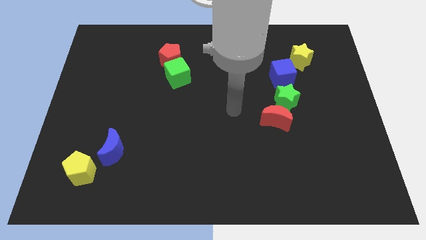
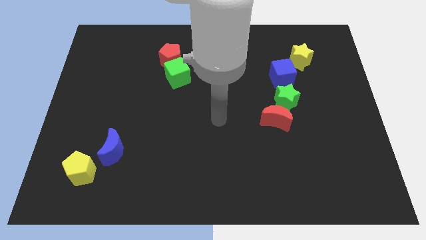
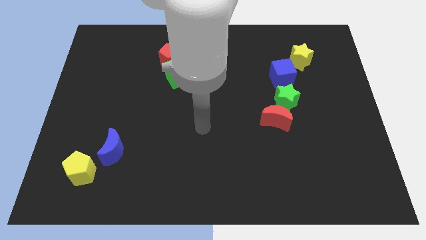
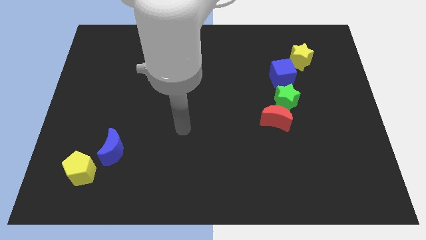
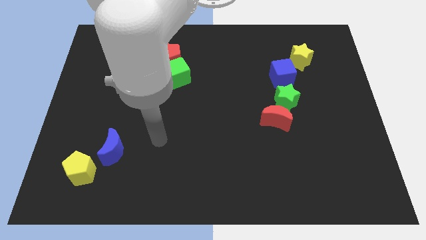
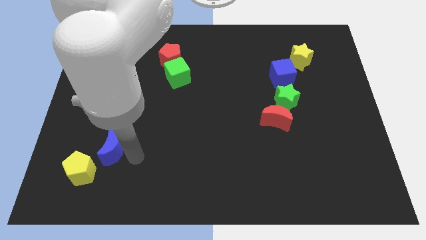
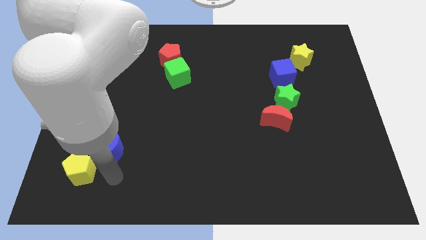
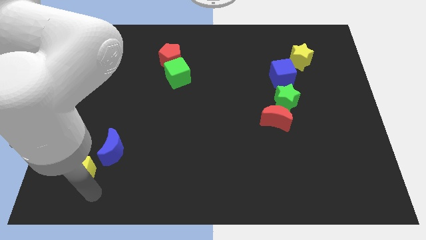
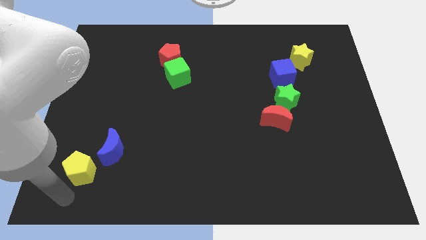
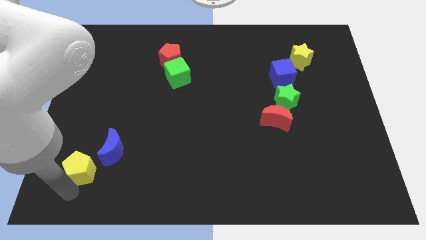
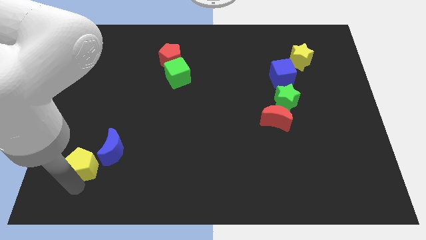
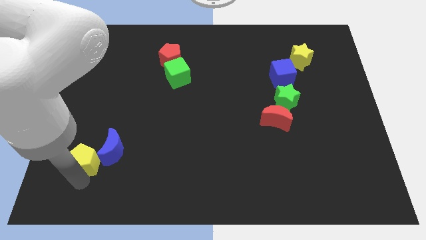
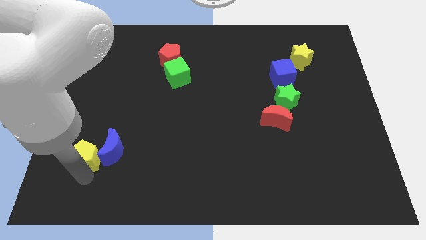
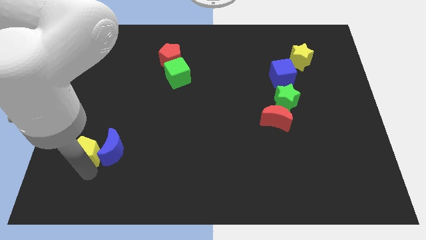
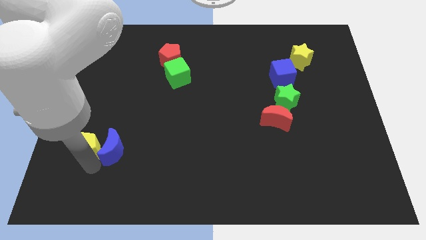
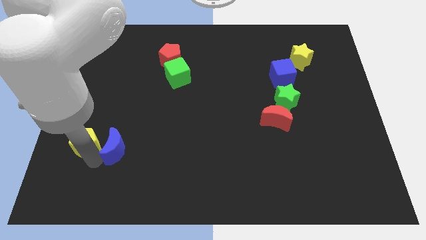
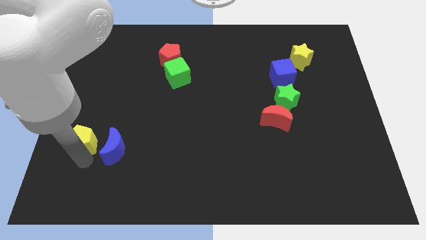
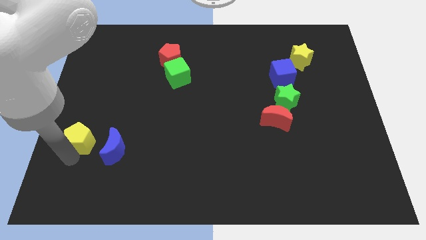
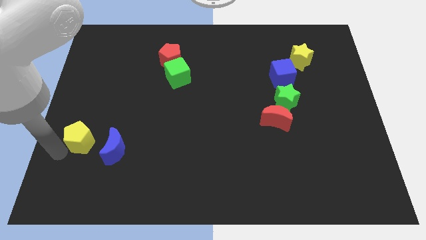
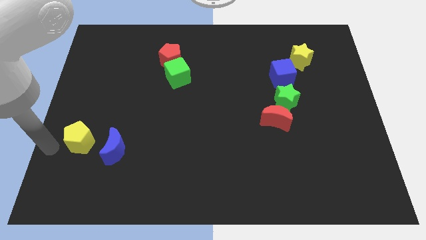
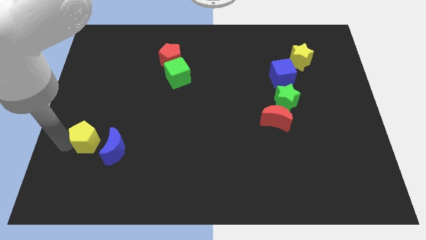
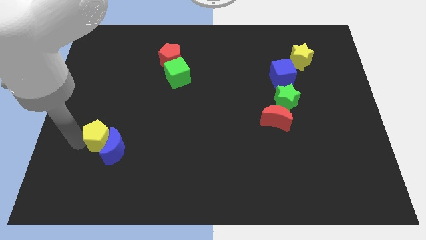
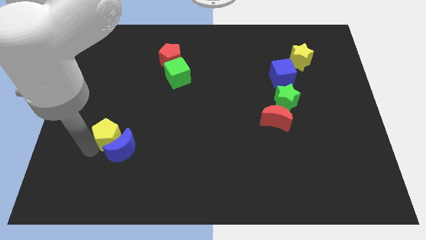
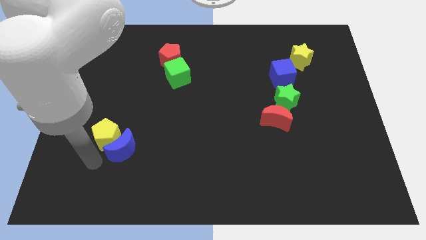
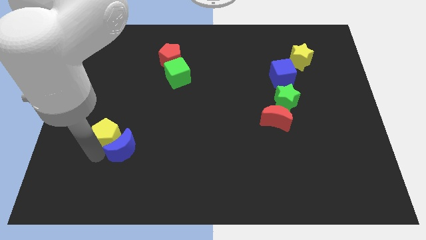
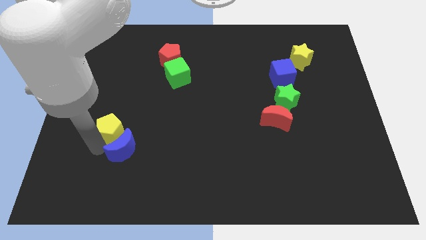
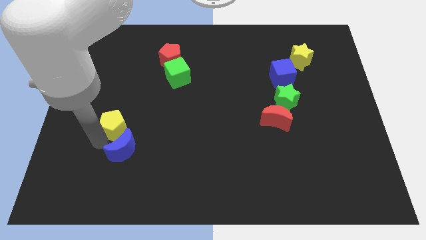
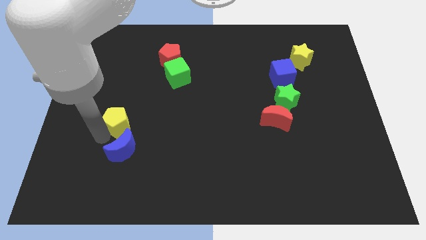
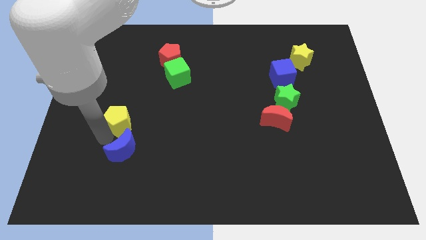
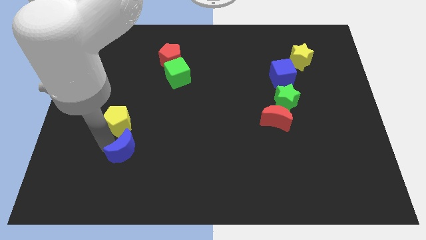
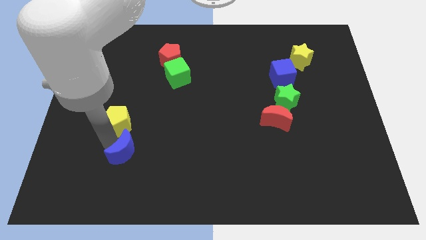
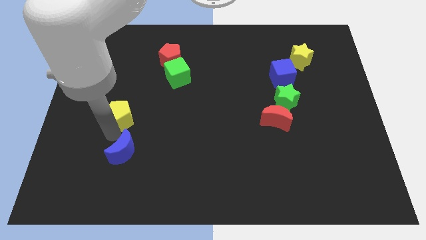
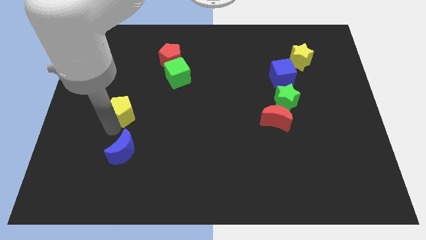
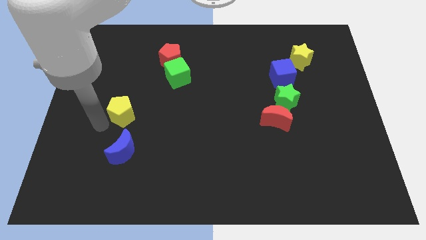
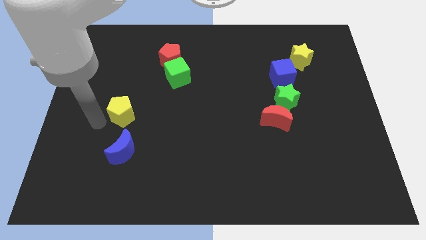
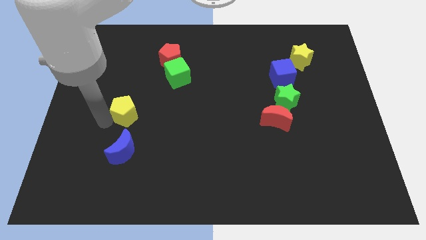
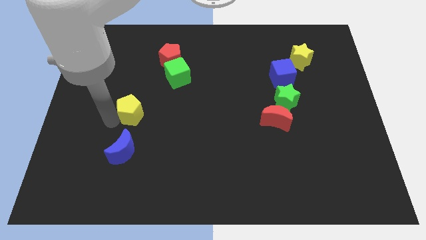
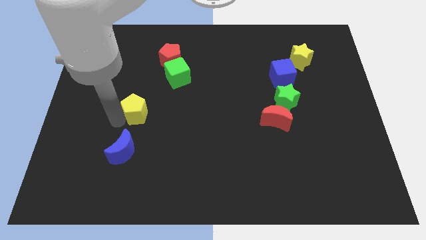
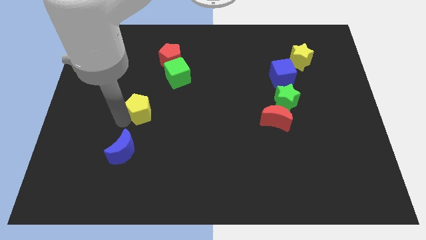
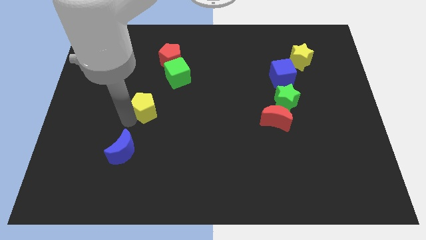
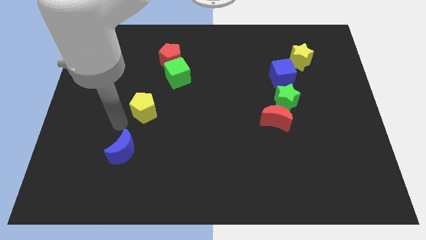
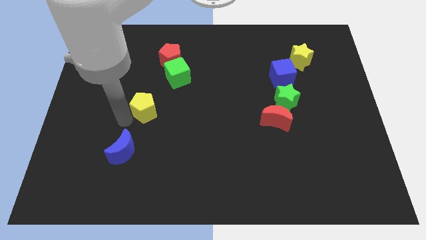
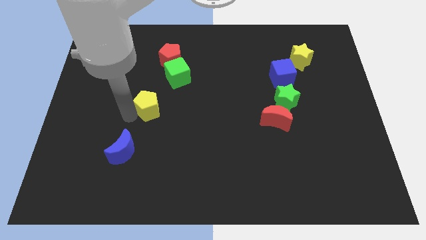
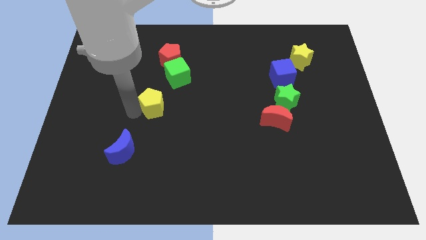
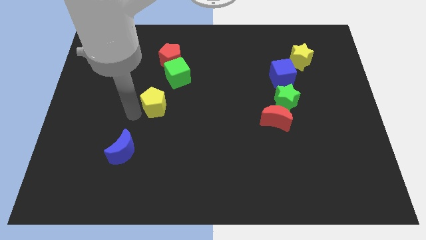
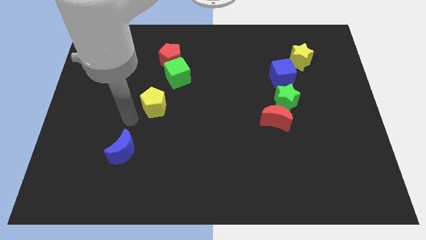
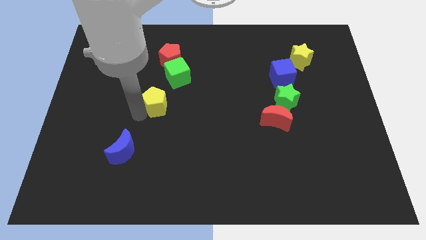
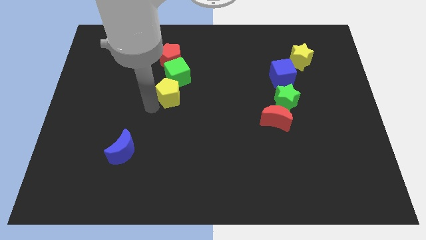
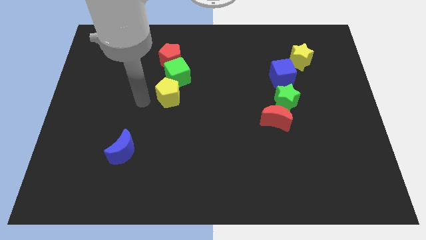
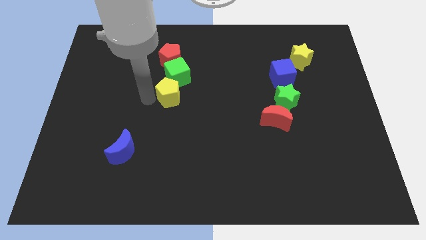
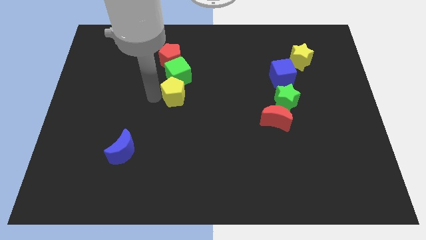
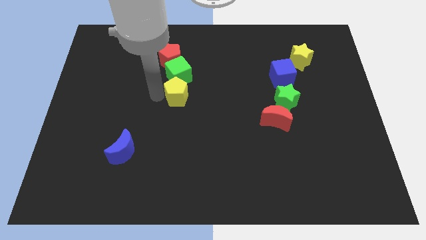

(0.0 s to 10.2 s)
put the yellow pentagon diagonally down and to the right of the green cube

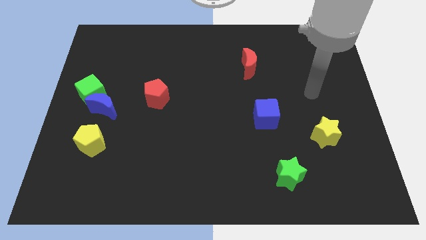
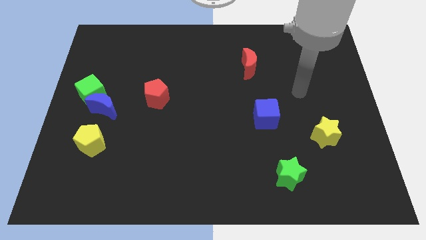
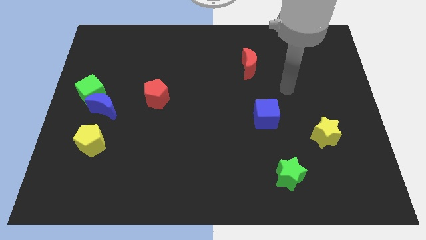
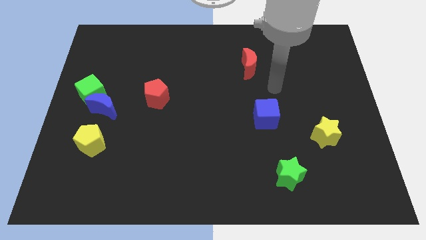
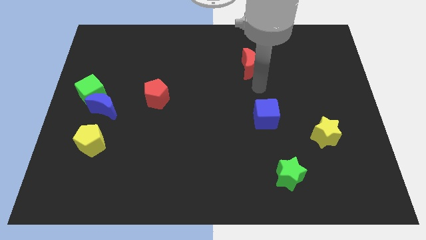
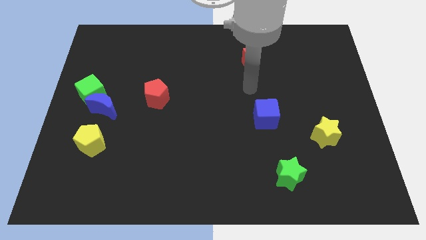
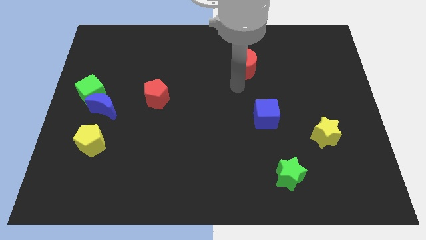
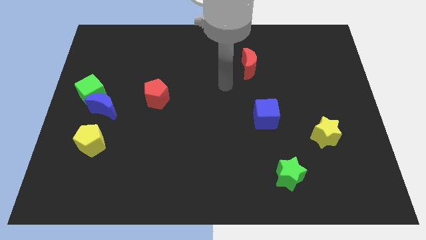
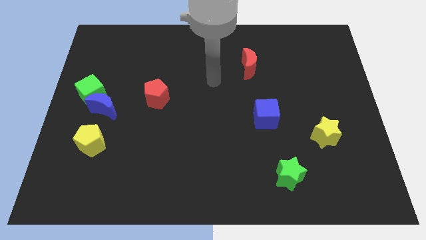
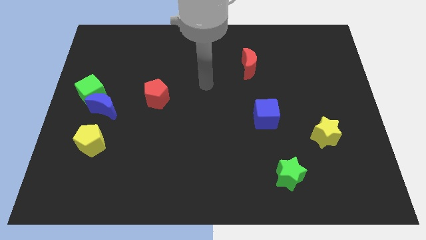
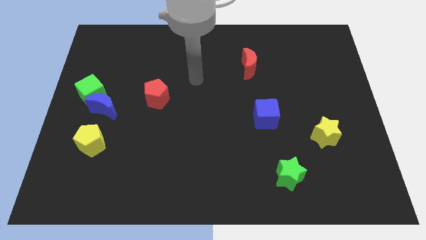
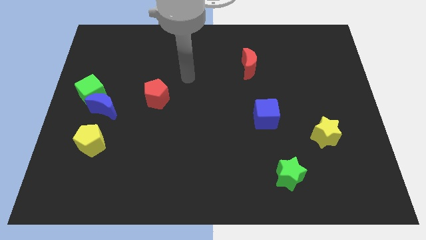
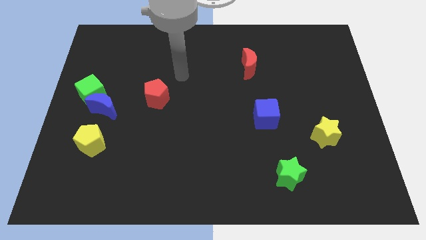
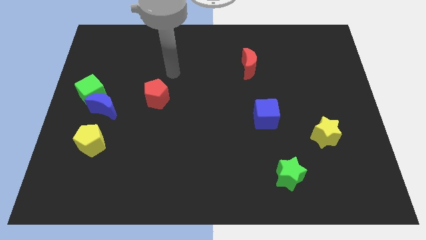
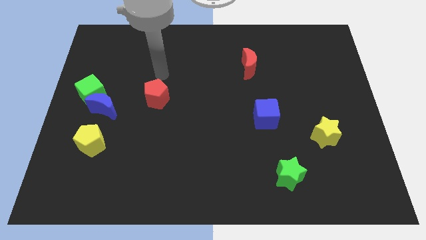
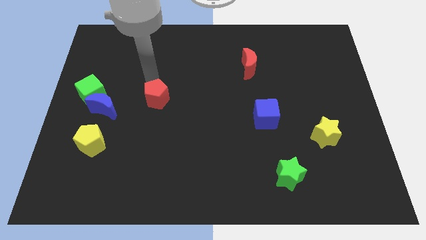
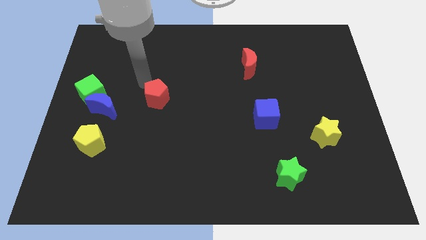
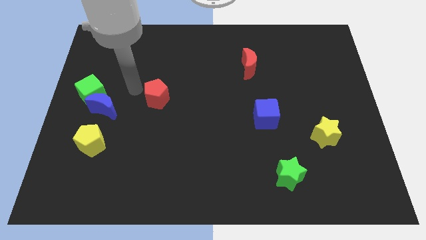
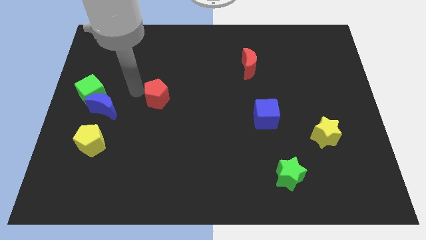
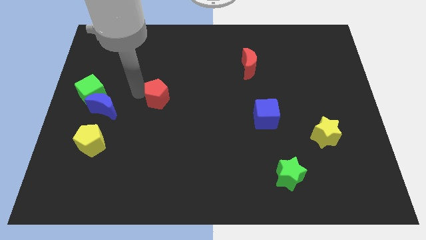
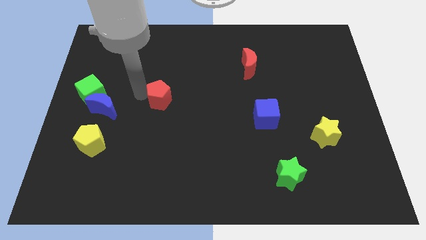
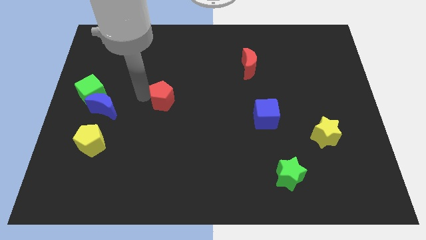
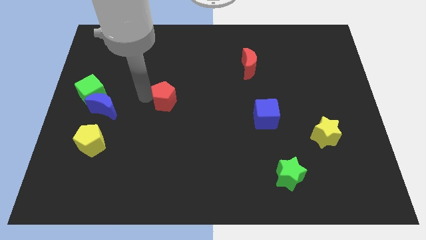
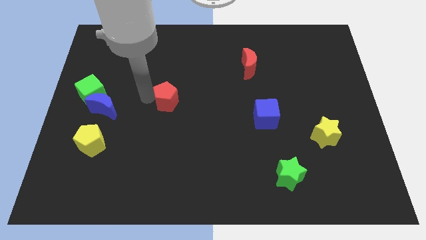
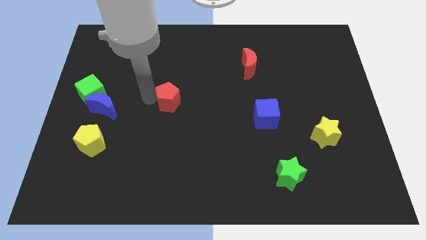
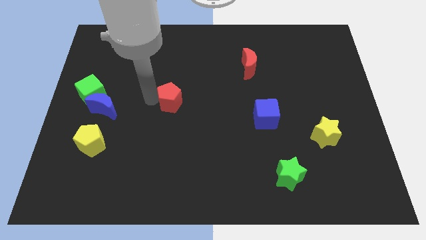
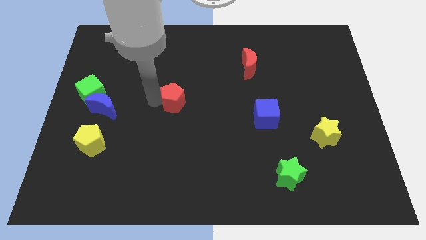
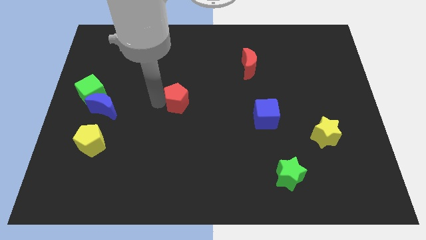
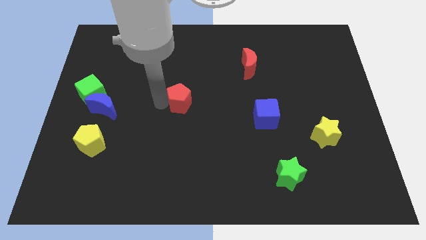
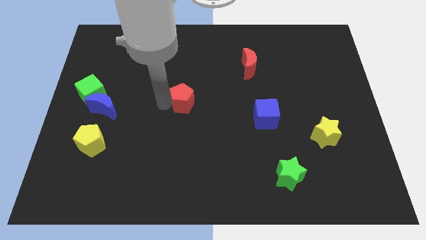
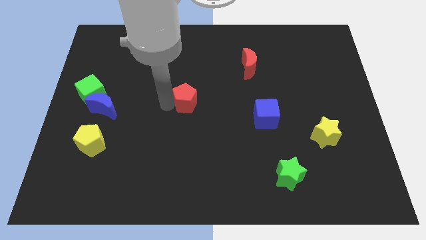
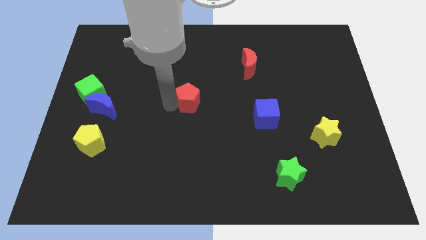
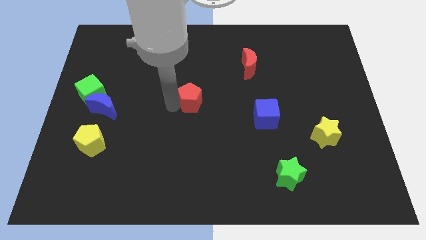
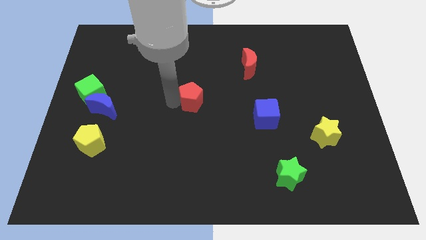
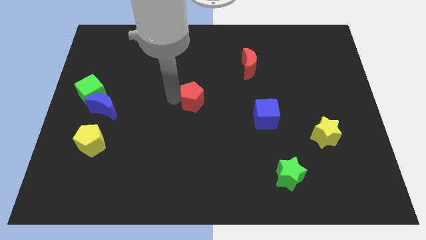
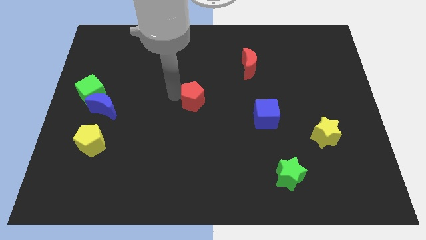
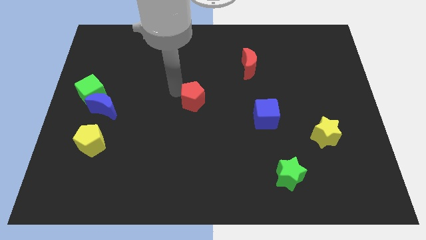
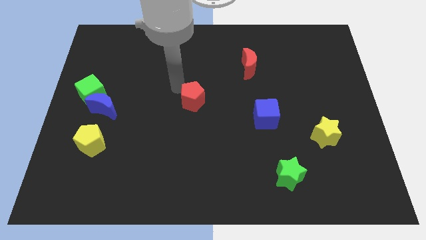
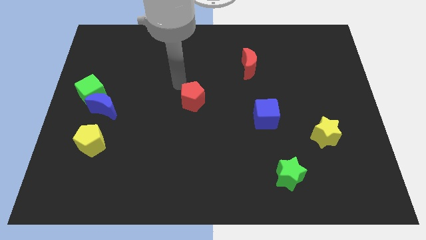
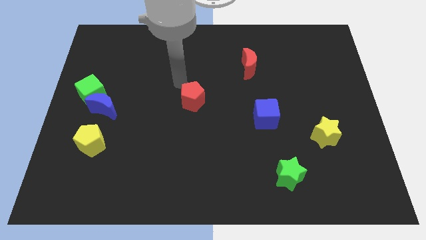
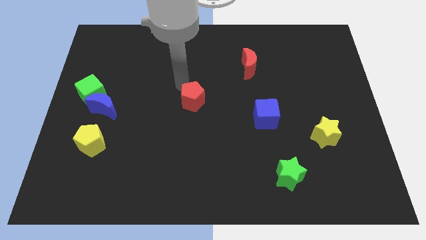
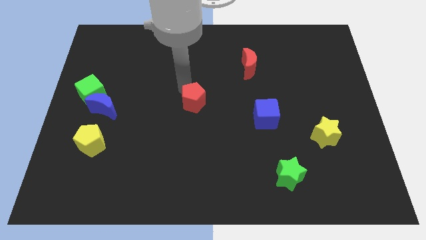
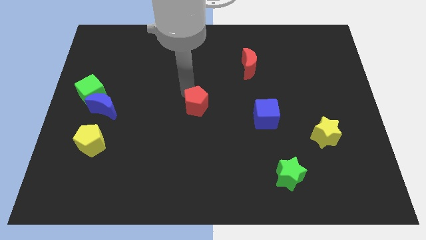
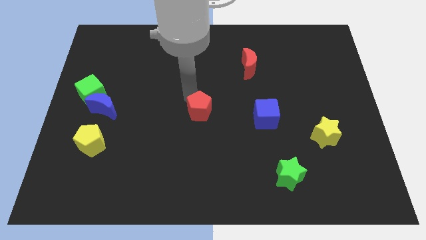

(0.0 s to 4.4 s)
move the red pentagon left of the blue cube
